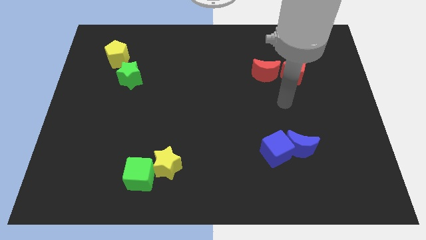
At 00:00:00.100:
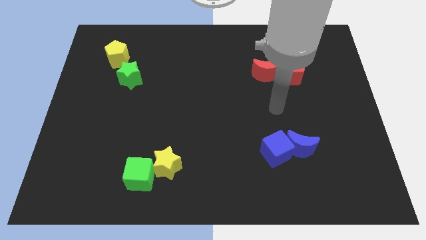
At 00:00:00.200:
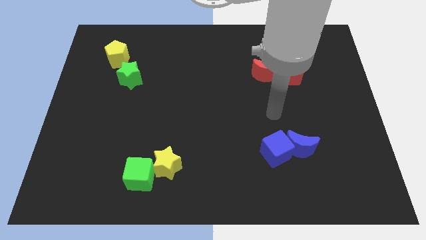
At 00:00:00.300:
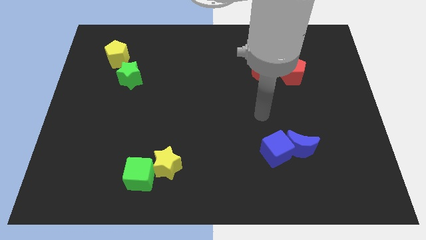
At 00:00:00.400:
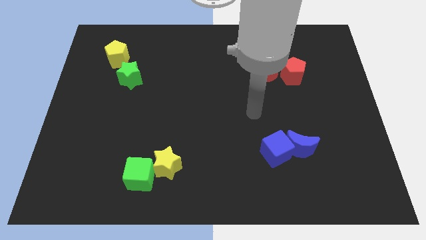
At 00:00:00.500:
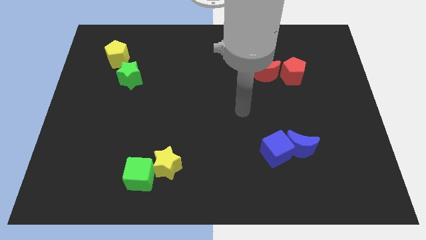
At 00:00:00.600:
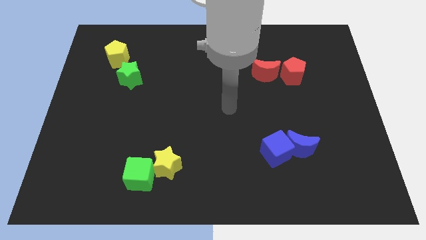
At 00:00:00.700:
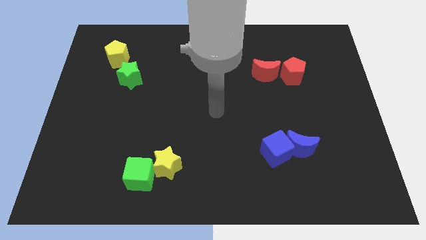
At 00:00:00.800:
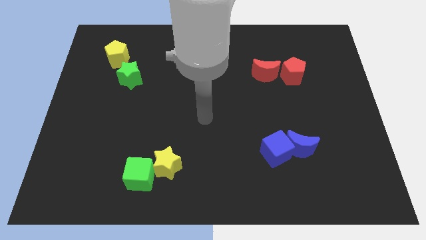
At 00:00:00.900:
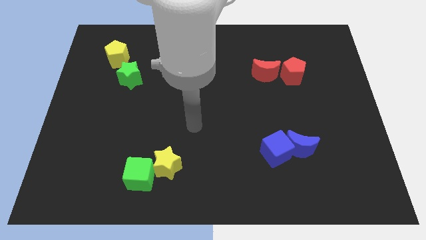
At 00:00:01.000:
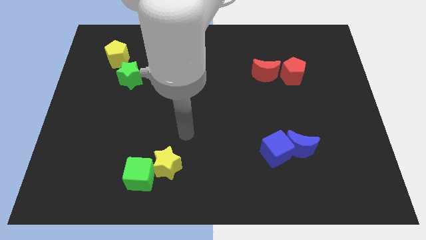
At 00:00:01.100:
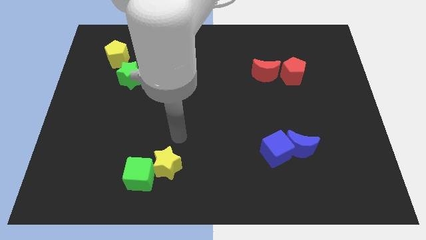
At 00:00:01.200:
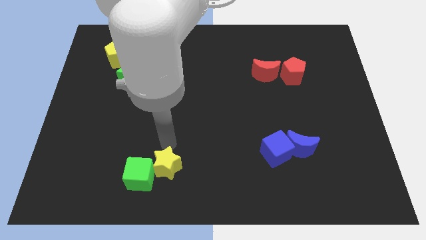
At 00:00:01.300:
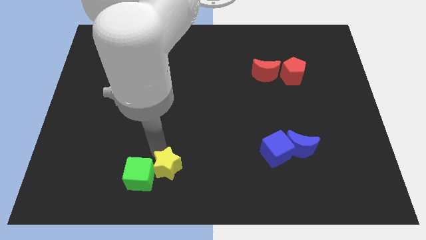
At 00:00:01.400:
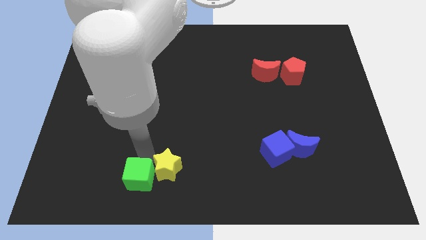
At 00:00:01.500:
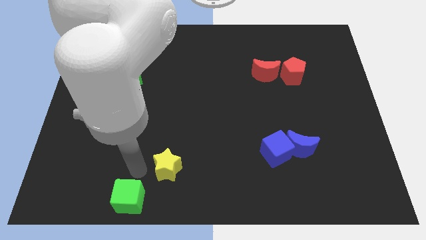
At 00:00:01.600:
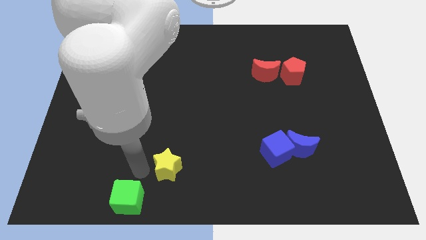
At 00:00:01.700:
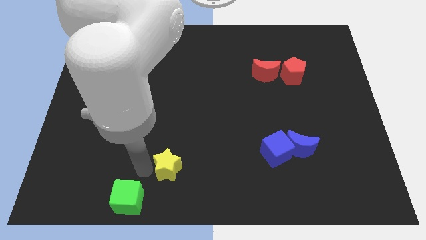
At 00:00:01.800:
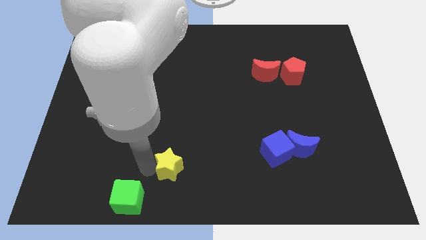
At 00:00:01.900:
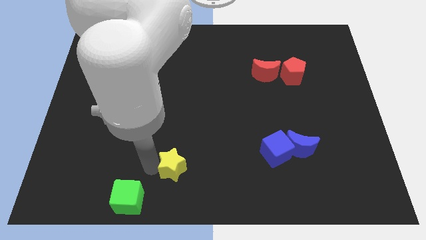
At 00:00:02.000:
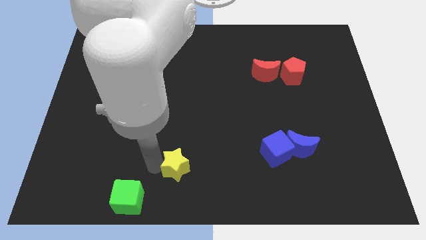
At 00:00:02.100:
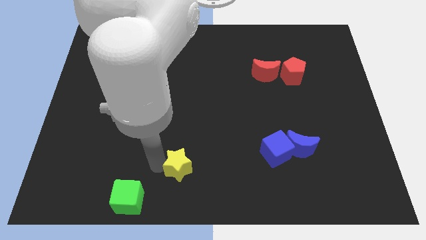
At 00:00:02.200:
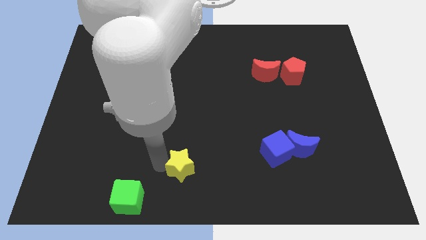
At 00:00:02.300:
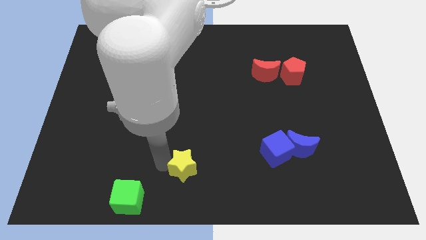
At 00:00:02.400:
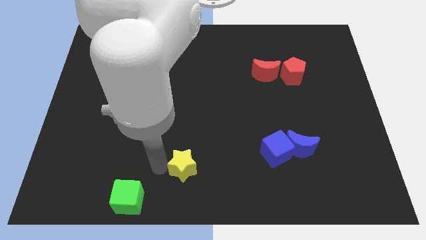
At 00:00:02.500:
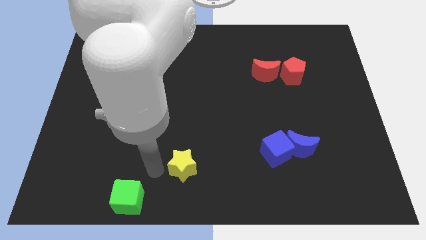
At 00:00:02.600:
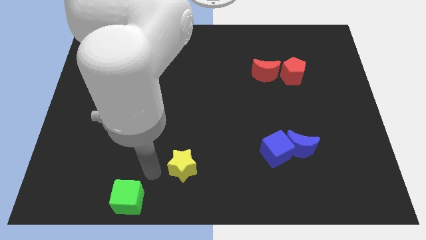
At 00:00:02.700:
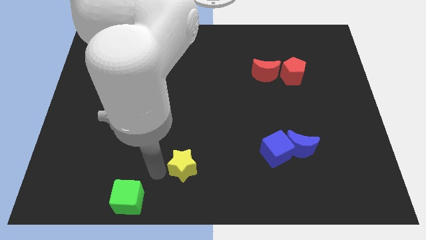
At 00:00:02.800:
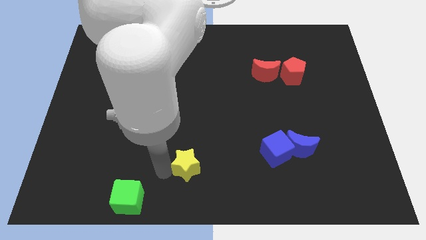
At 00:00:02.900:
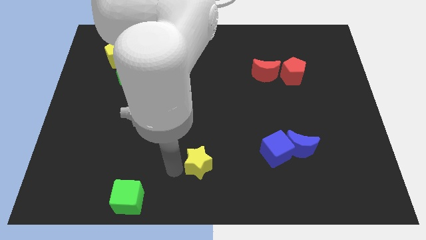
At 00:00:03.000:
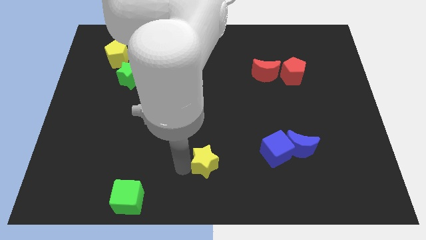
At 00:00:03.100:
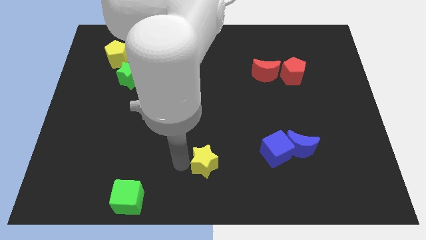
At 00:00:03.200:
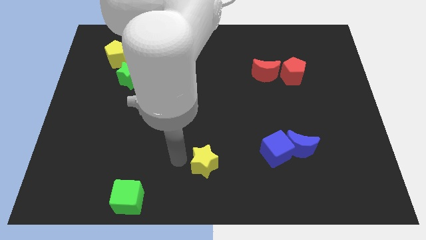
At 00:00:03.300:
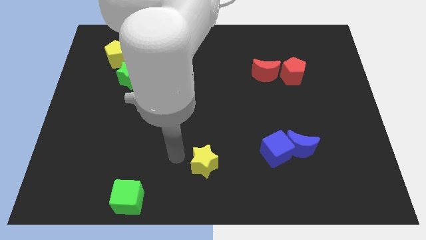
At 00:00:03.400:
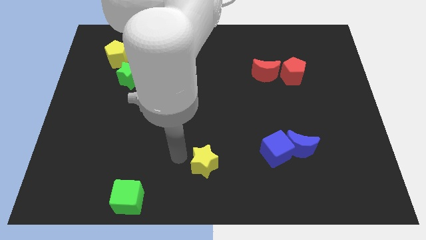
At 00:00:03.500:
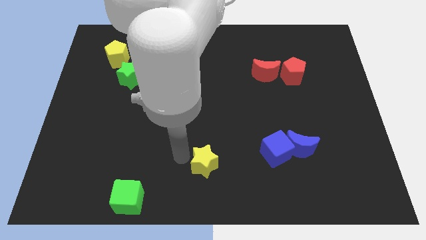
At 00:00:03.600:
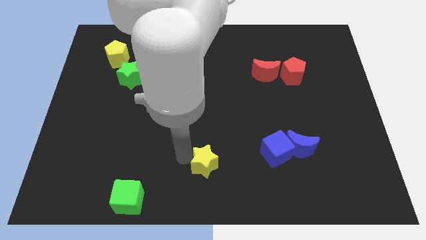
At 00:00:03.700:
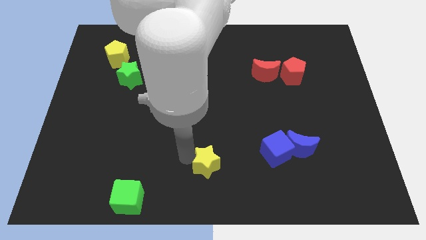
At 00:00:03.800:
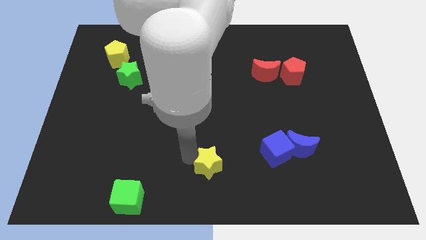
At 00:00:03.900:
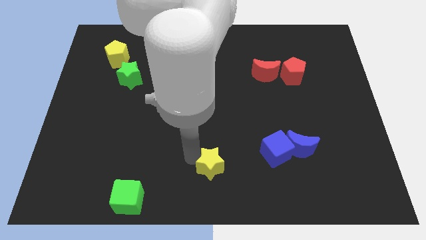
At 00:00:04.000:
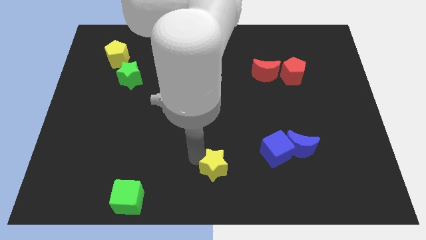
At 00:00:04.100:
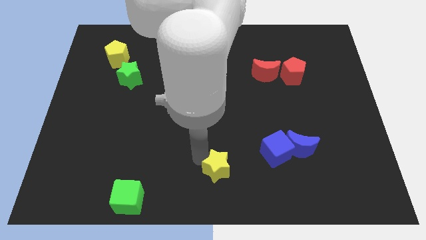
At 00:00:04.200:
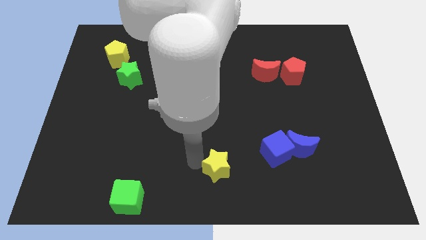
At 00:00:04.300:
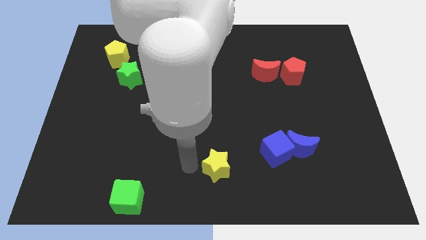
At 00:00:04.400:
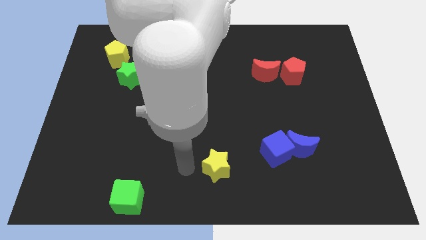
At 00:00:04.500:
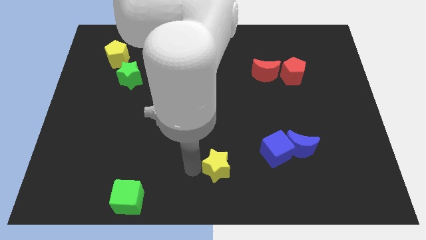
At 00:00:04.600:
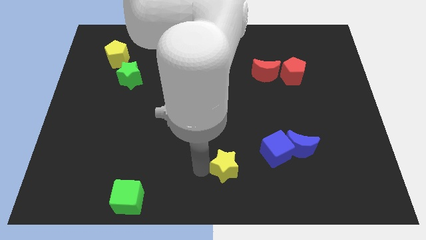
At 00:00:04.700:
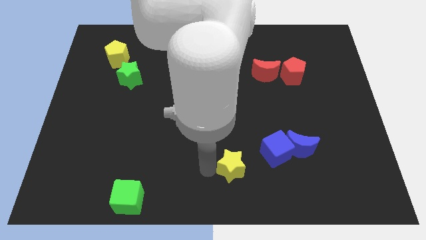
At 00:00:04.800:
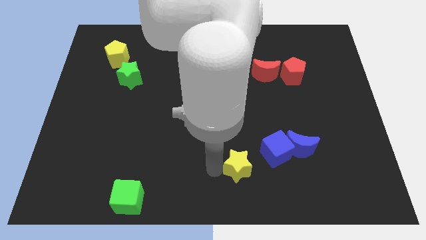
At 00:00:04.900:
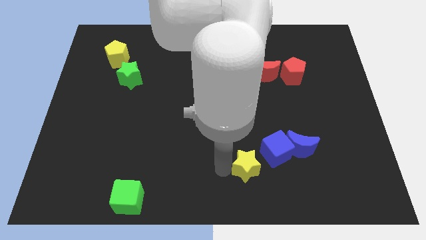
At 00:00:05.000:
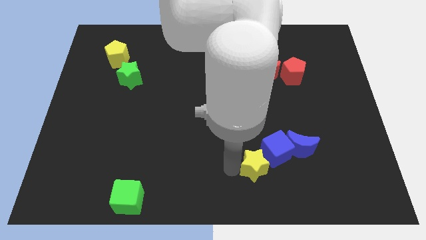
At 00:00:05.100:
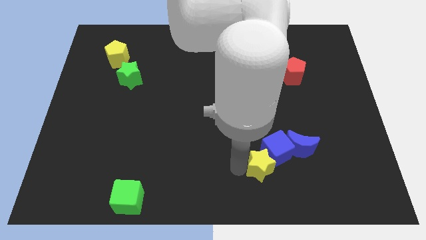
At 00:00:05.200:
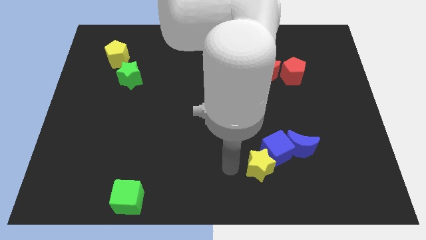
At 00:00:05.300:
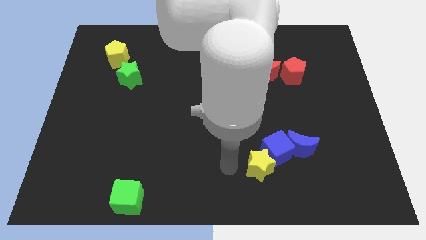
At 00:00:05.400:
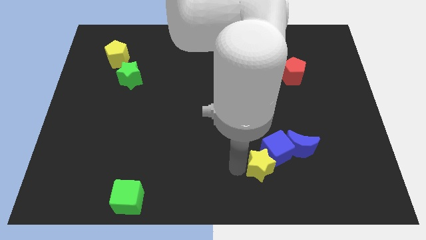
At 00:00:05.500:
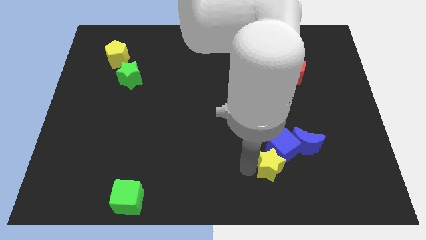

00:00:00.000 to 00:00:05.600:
push the yellow star right

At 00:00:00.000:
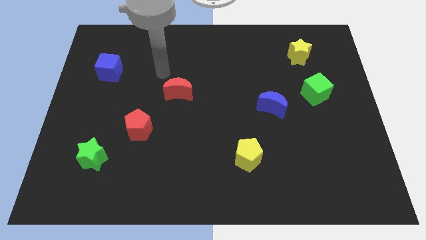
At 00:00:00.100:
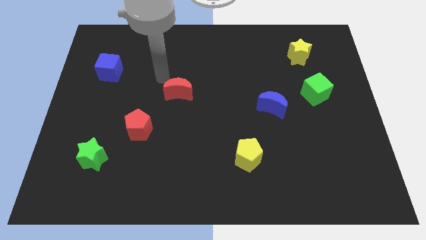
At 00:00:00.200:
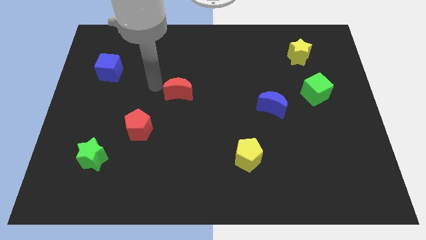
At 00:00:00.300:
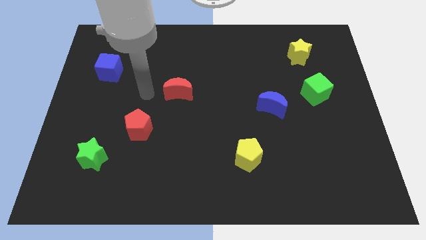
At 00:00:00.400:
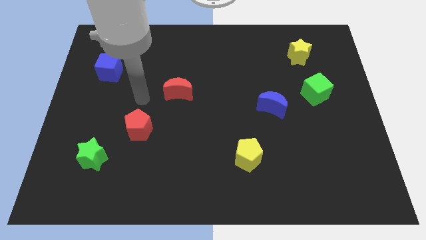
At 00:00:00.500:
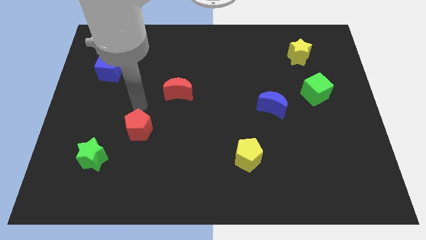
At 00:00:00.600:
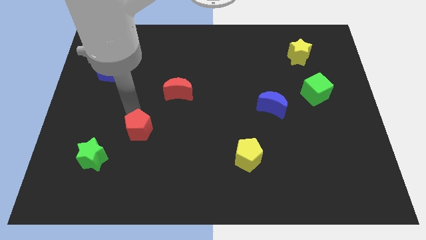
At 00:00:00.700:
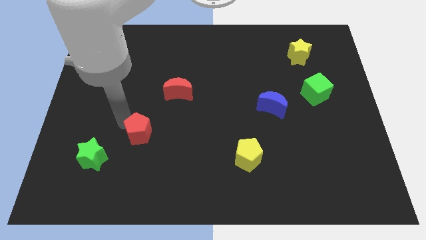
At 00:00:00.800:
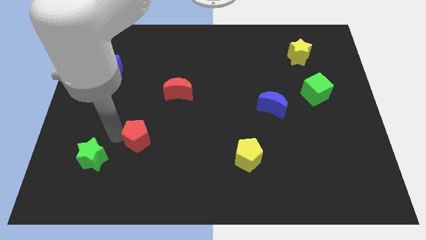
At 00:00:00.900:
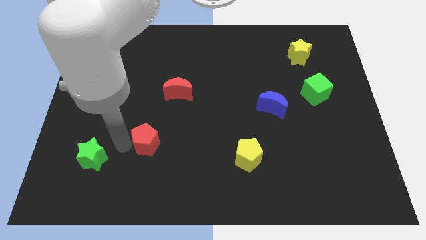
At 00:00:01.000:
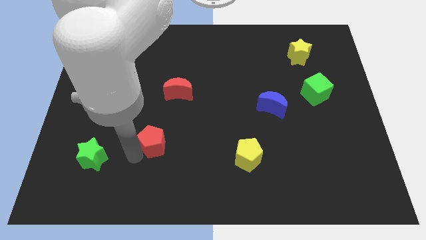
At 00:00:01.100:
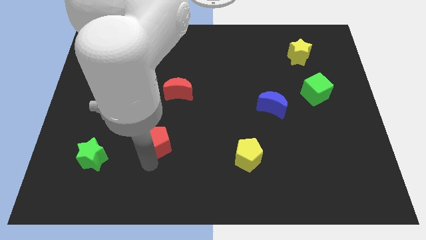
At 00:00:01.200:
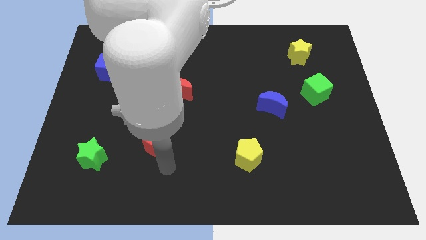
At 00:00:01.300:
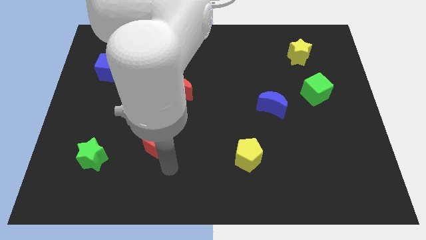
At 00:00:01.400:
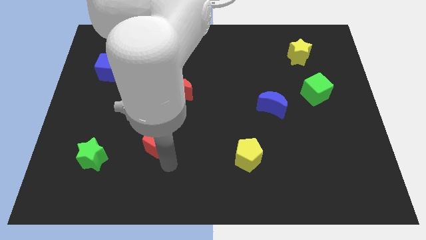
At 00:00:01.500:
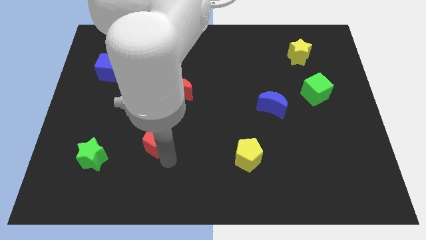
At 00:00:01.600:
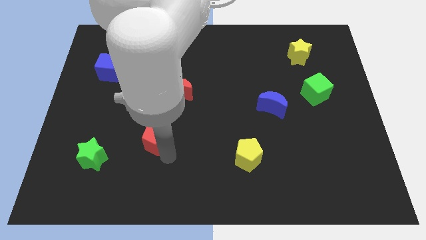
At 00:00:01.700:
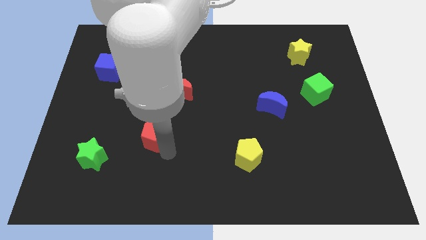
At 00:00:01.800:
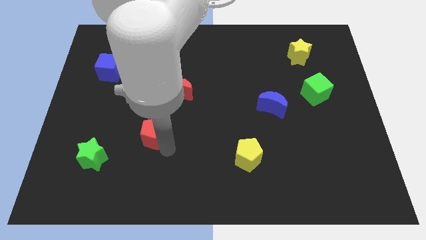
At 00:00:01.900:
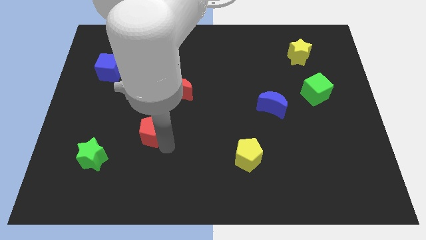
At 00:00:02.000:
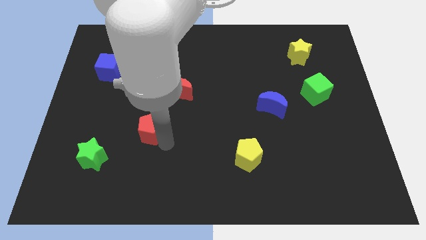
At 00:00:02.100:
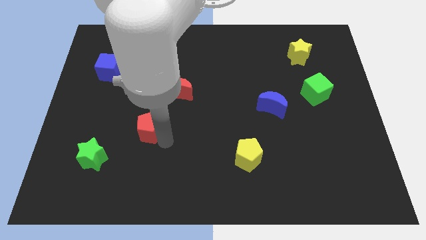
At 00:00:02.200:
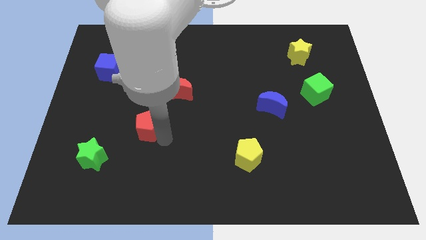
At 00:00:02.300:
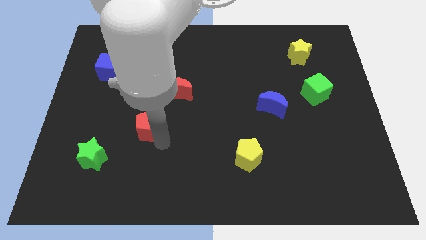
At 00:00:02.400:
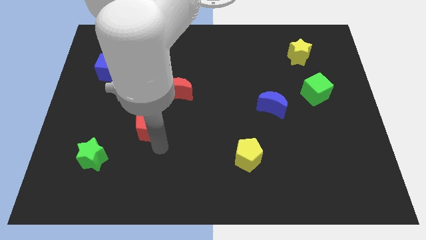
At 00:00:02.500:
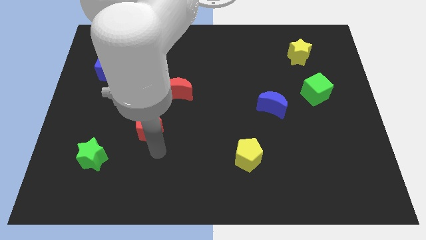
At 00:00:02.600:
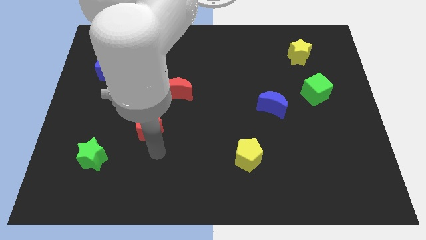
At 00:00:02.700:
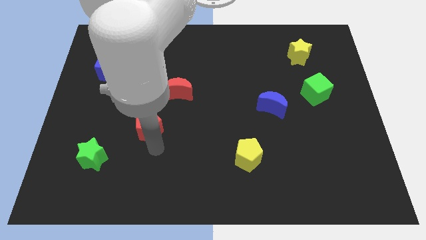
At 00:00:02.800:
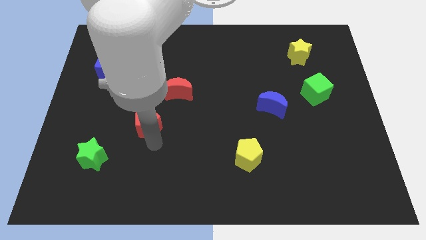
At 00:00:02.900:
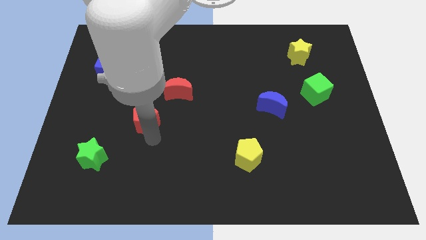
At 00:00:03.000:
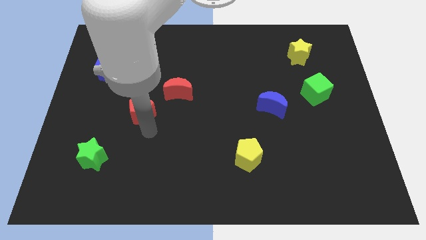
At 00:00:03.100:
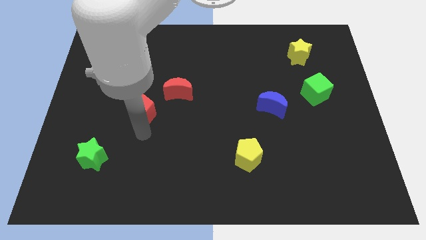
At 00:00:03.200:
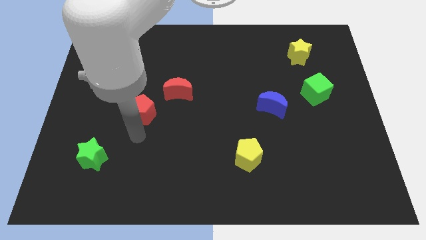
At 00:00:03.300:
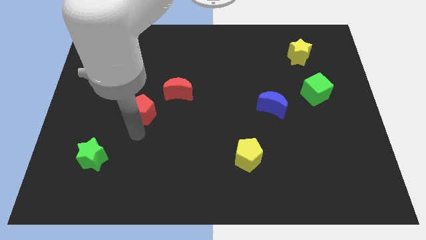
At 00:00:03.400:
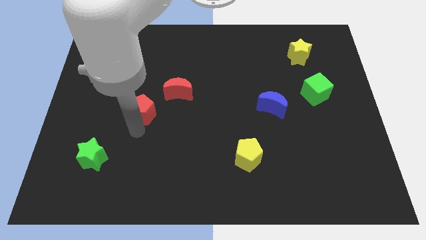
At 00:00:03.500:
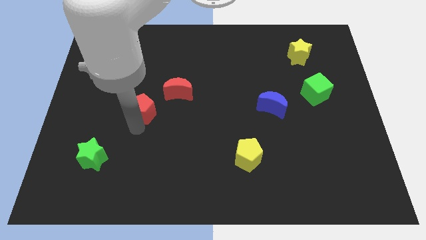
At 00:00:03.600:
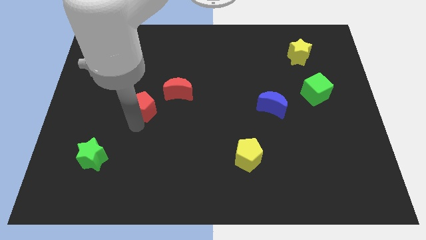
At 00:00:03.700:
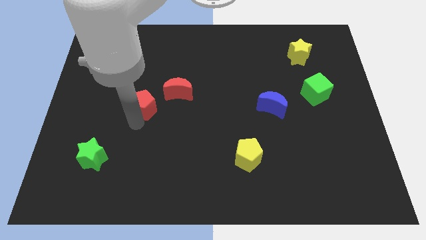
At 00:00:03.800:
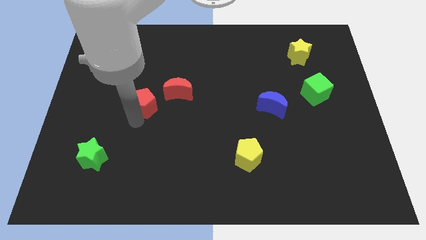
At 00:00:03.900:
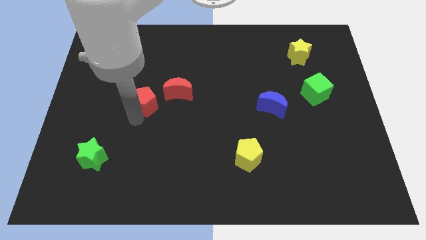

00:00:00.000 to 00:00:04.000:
move the red pentagon up a bit
